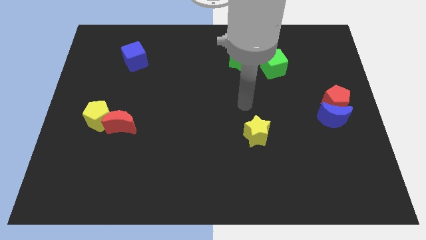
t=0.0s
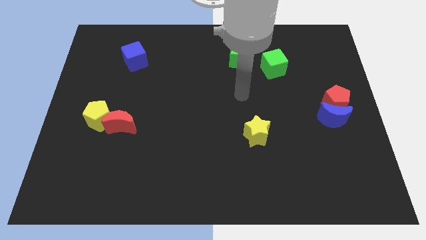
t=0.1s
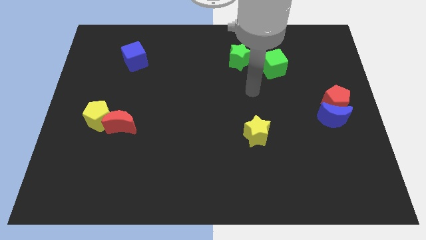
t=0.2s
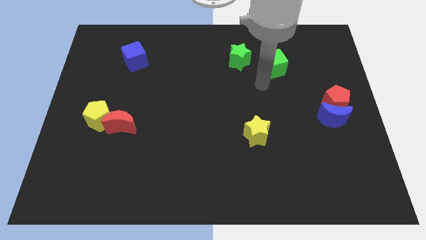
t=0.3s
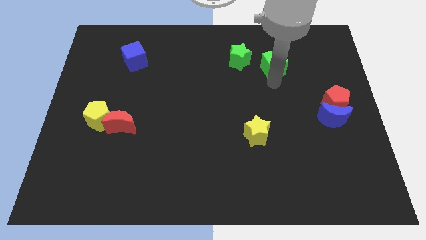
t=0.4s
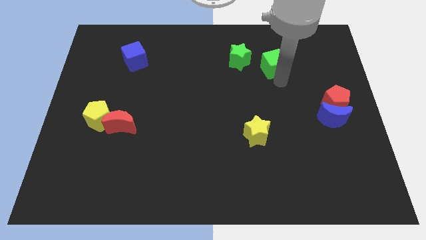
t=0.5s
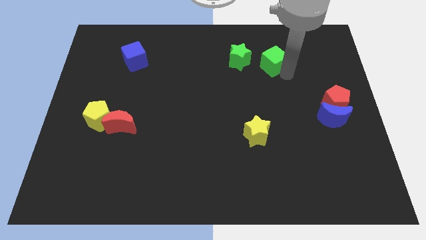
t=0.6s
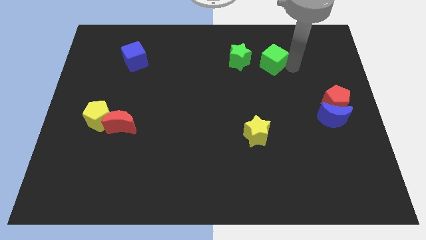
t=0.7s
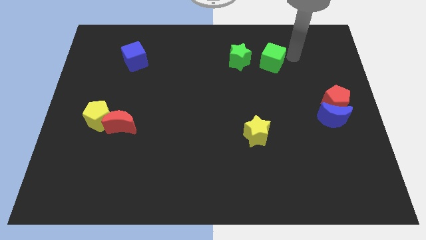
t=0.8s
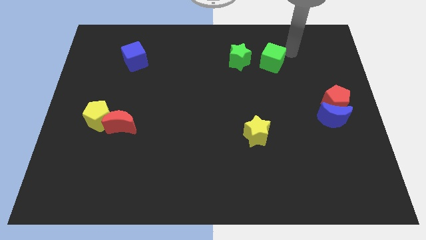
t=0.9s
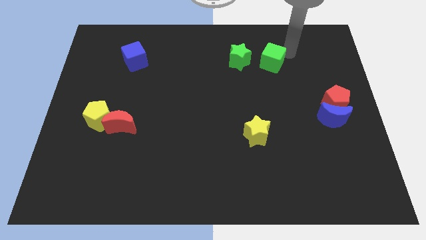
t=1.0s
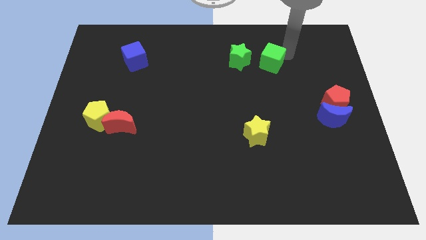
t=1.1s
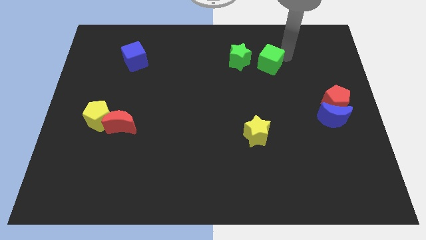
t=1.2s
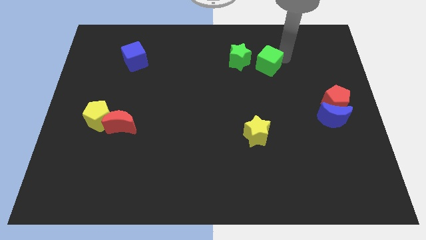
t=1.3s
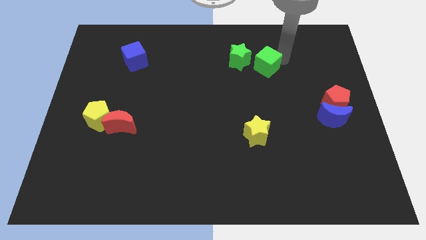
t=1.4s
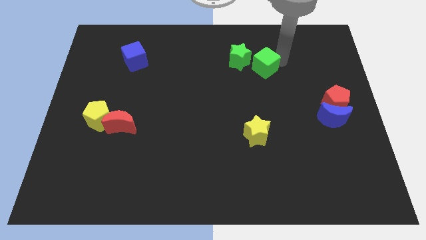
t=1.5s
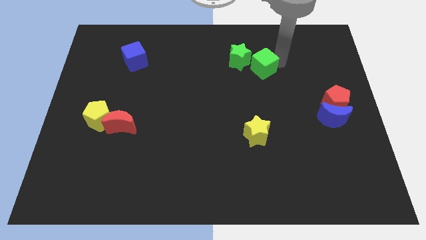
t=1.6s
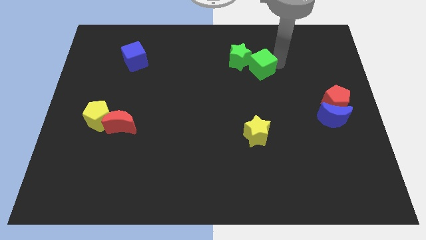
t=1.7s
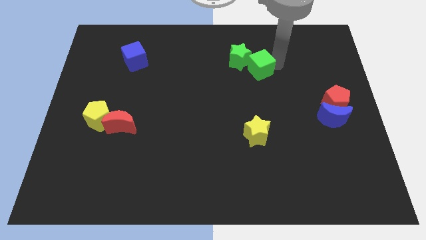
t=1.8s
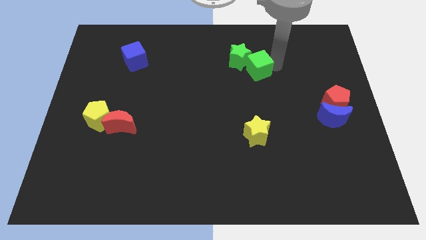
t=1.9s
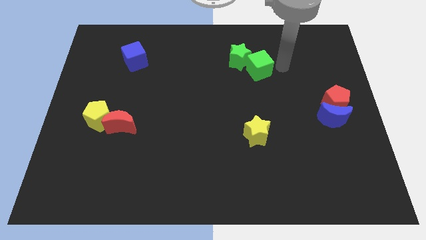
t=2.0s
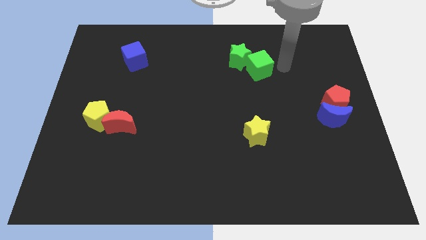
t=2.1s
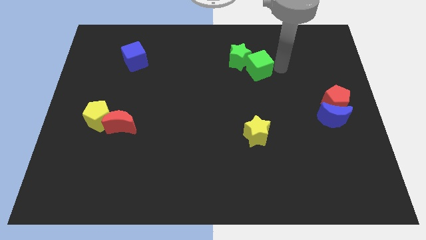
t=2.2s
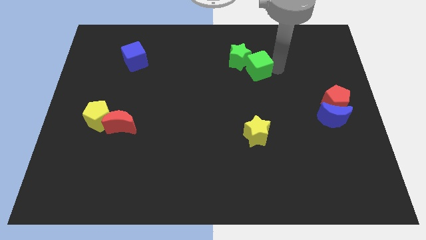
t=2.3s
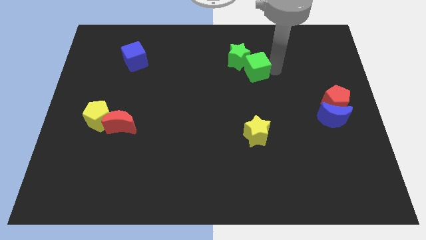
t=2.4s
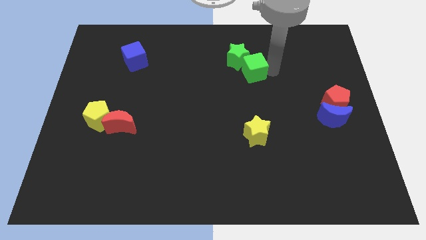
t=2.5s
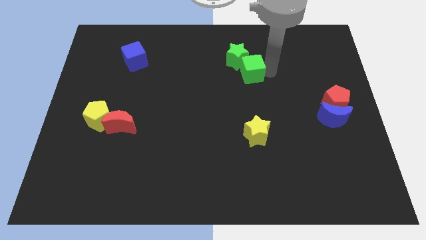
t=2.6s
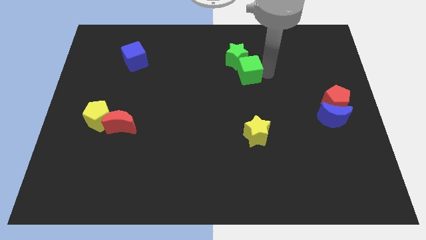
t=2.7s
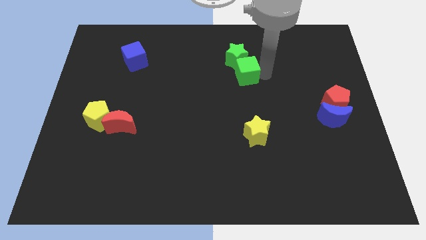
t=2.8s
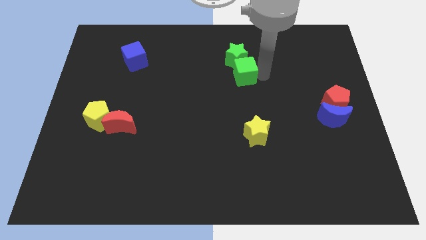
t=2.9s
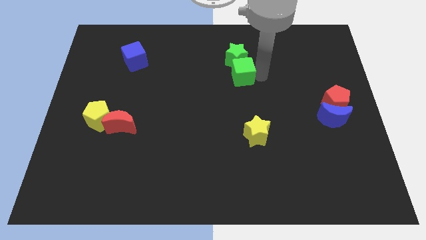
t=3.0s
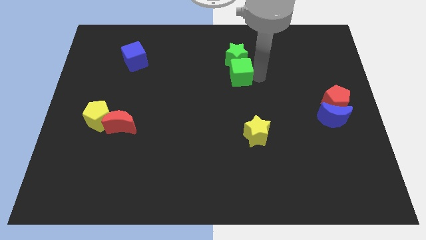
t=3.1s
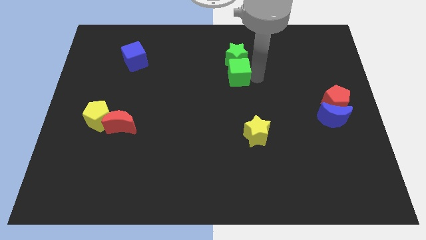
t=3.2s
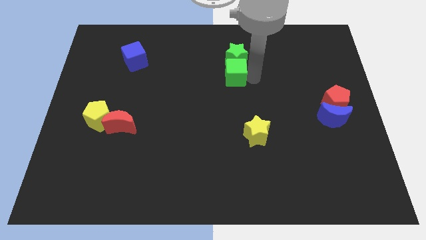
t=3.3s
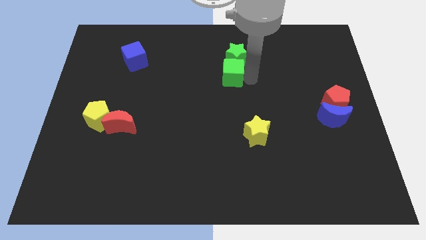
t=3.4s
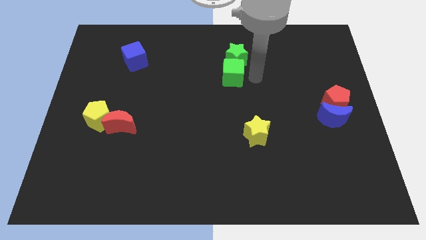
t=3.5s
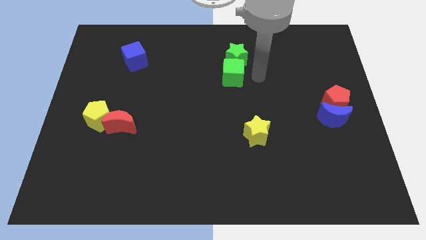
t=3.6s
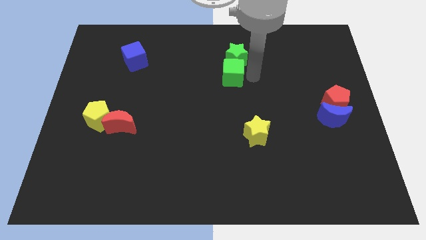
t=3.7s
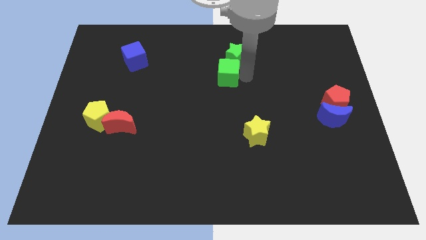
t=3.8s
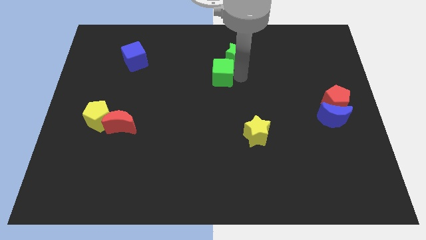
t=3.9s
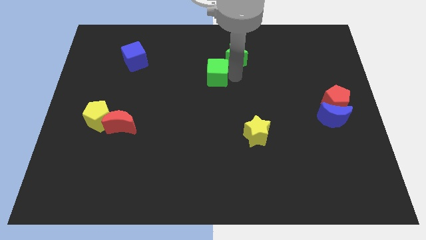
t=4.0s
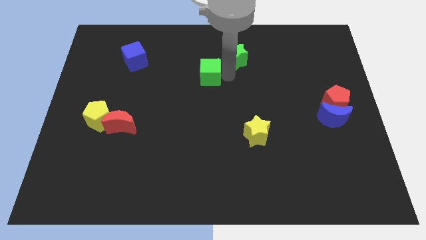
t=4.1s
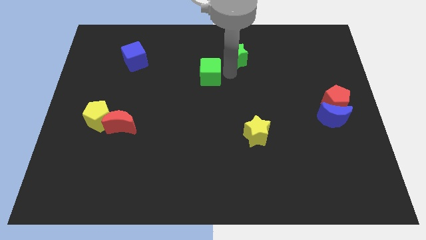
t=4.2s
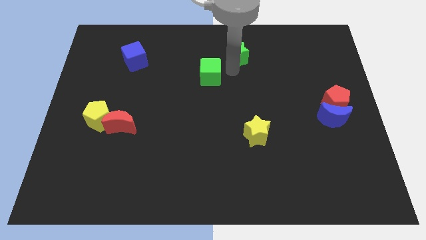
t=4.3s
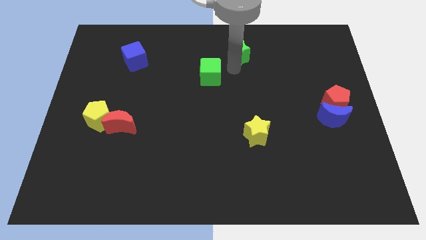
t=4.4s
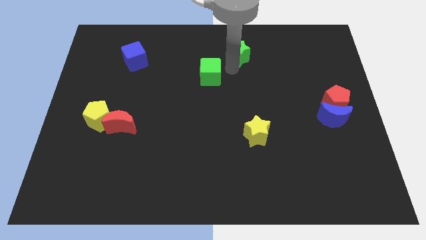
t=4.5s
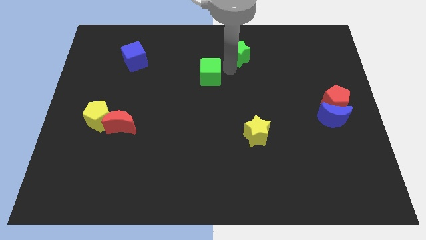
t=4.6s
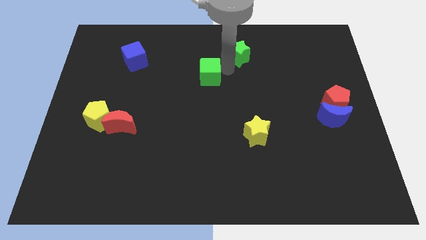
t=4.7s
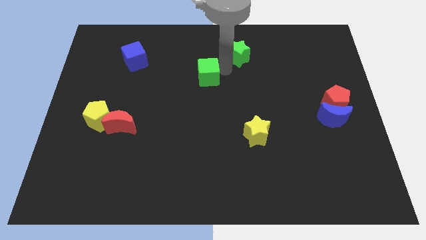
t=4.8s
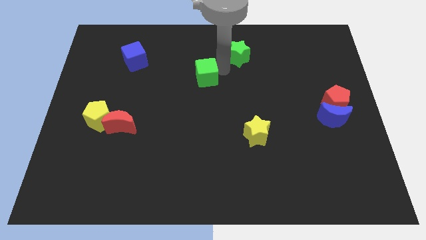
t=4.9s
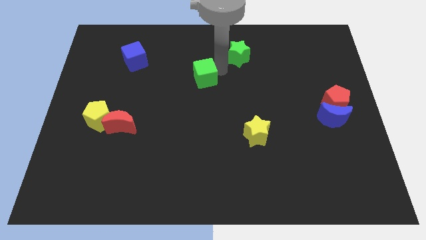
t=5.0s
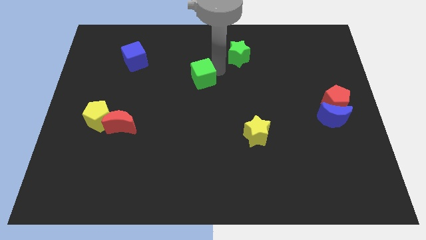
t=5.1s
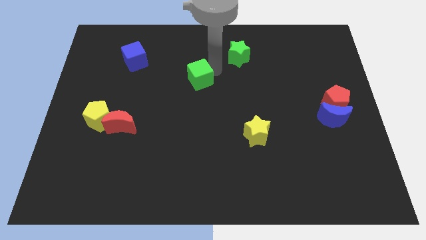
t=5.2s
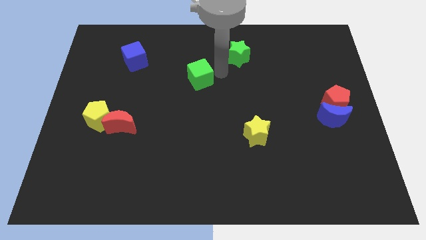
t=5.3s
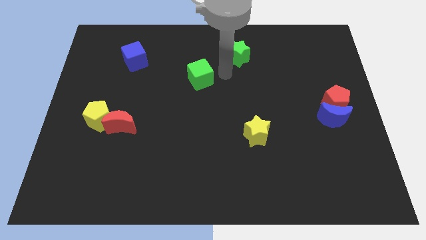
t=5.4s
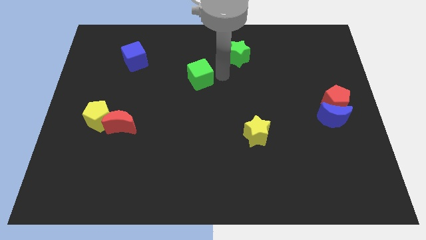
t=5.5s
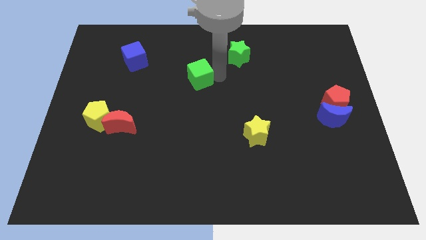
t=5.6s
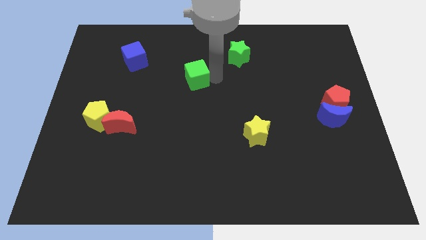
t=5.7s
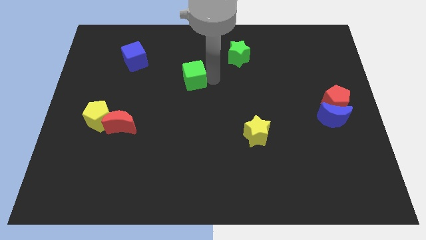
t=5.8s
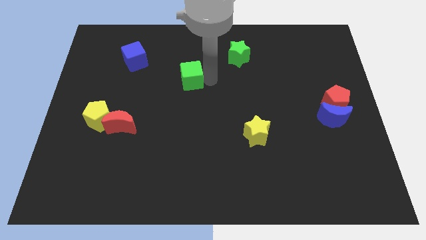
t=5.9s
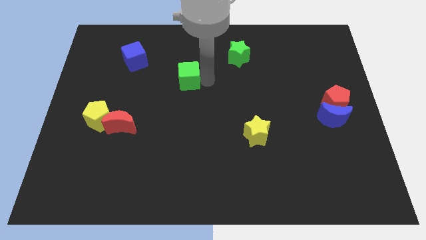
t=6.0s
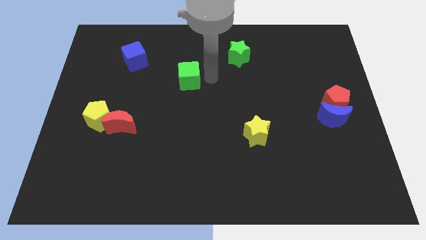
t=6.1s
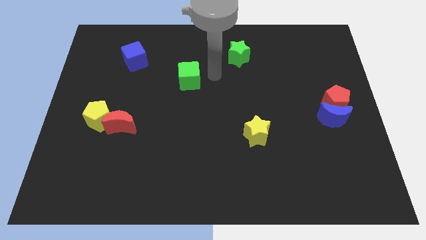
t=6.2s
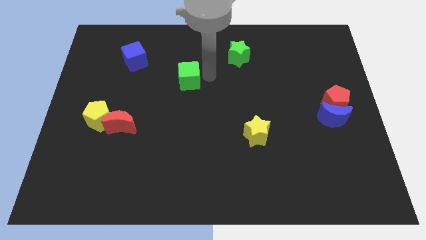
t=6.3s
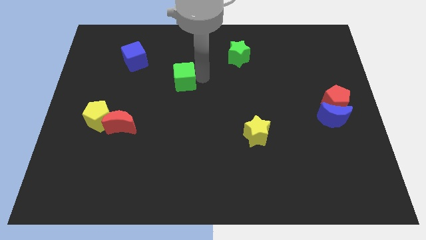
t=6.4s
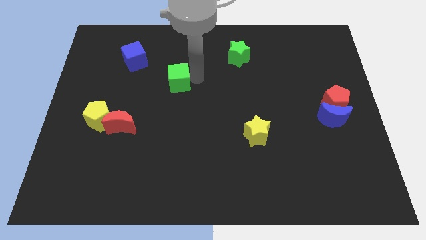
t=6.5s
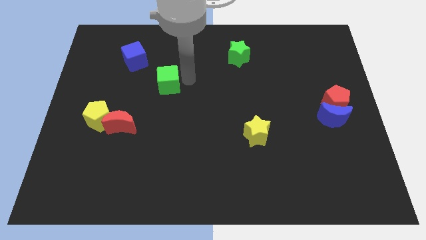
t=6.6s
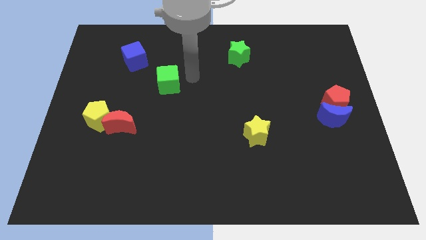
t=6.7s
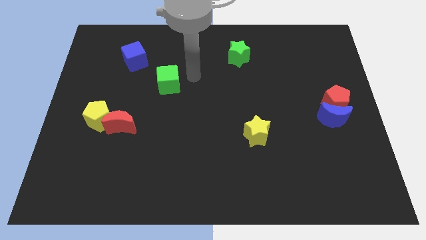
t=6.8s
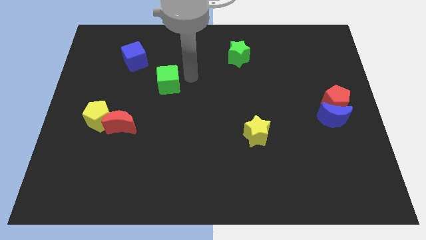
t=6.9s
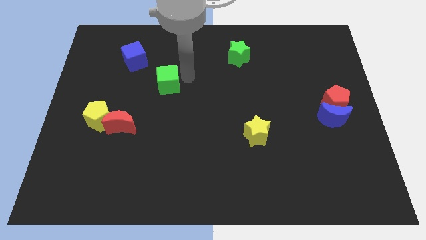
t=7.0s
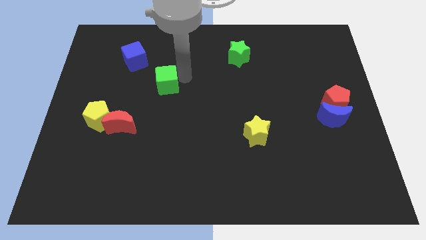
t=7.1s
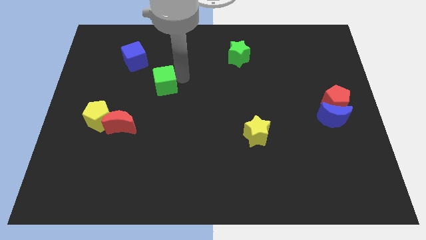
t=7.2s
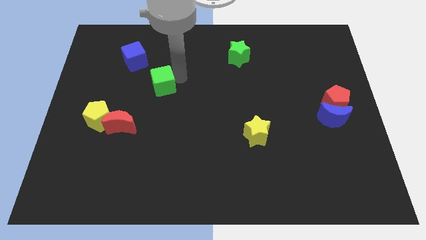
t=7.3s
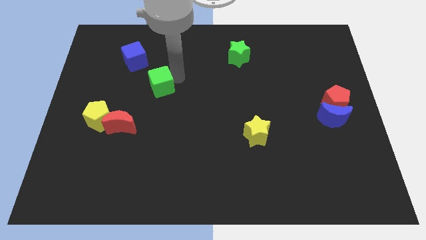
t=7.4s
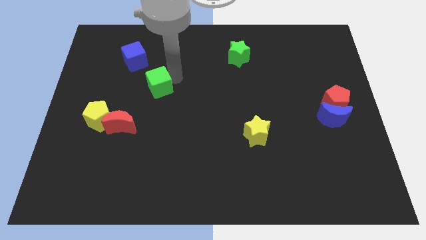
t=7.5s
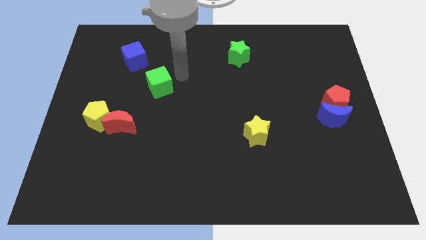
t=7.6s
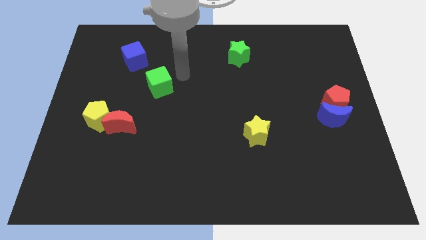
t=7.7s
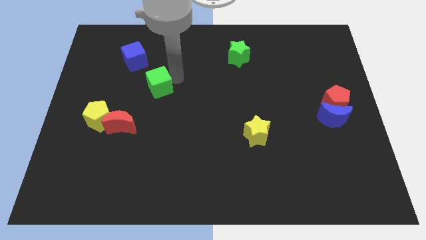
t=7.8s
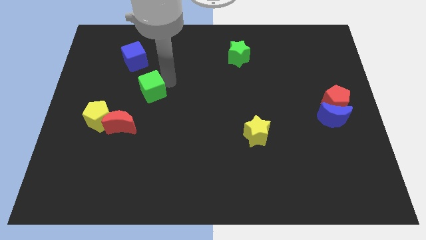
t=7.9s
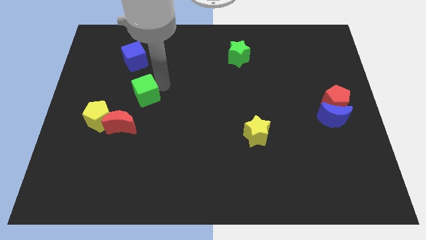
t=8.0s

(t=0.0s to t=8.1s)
push the green cube to the top right of the yellow pentagon
